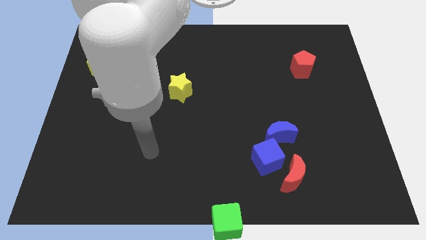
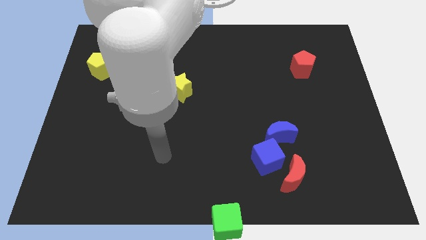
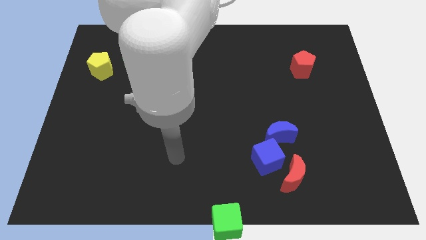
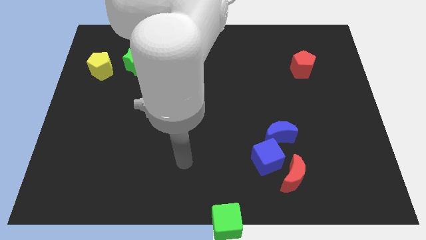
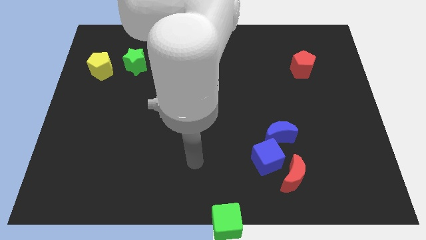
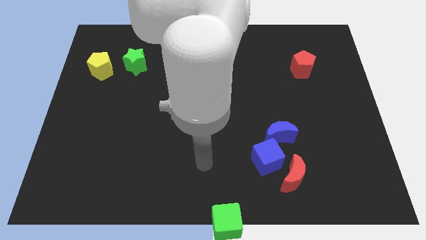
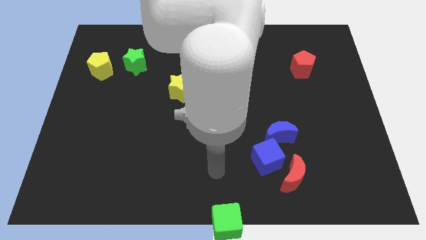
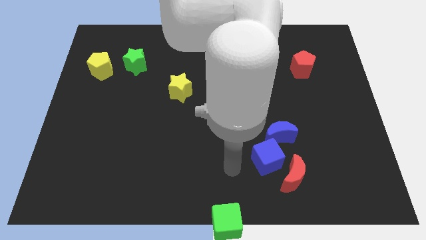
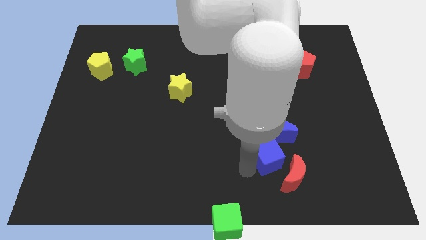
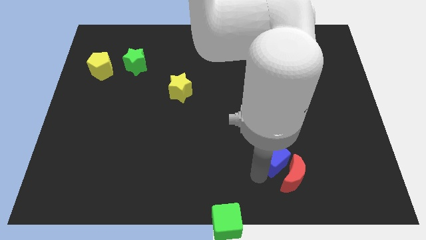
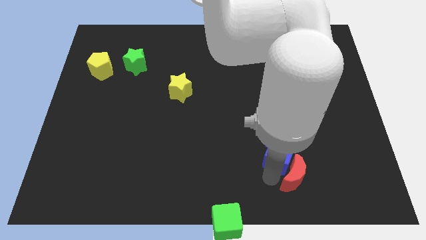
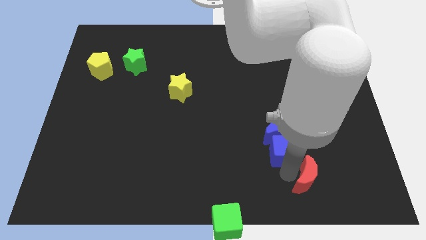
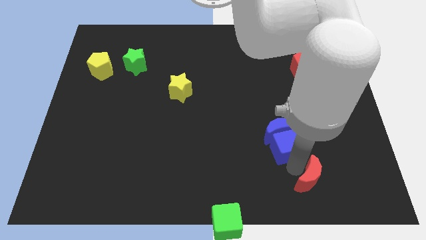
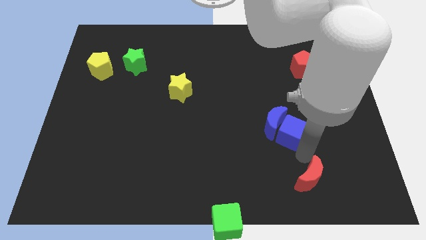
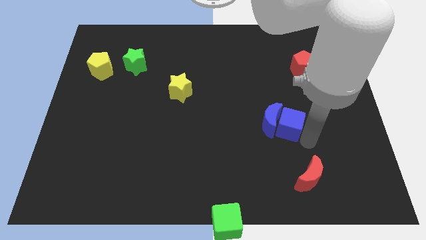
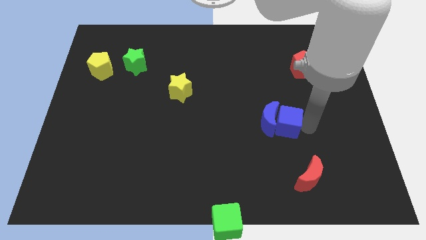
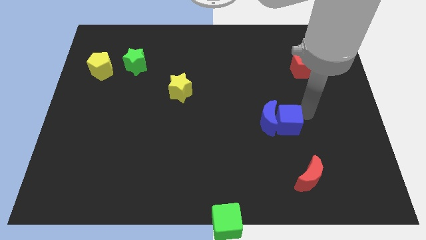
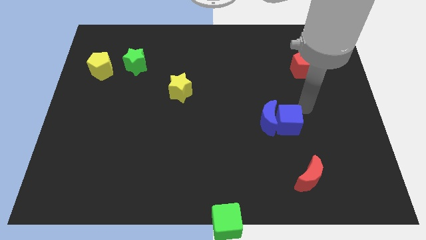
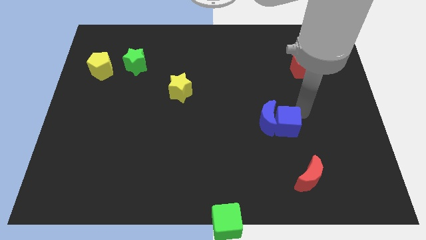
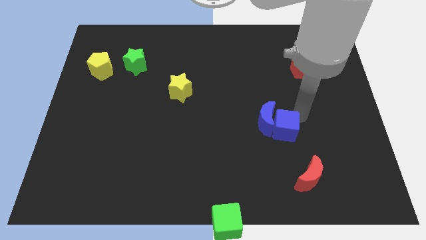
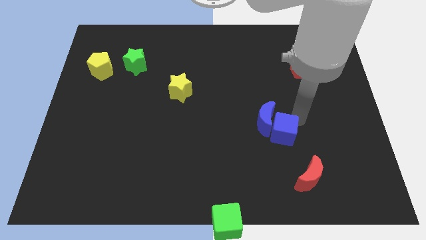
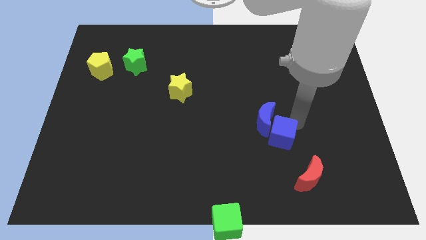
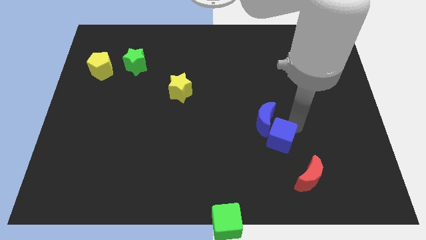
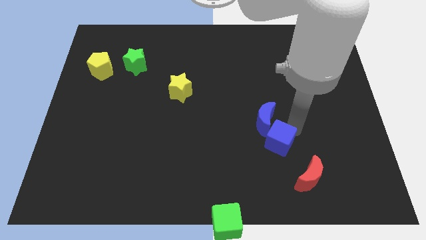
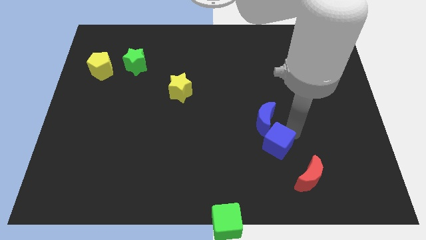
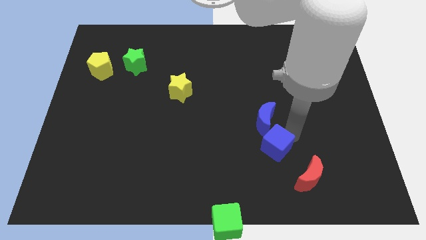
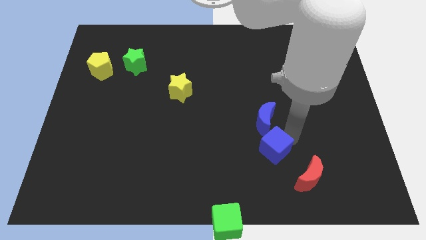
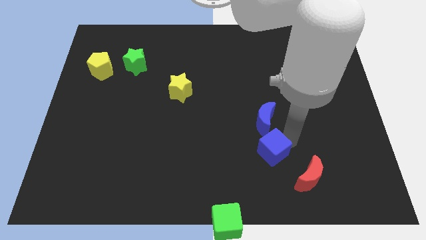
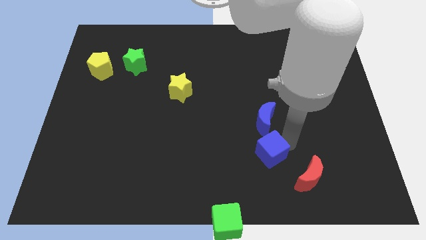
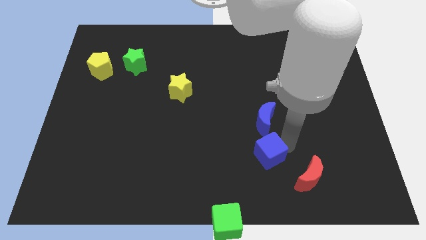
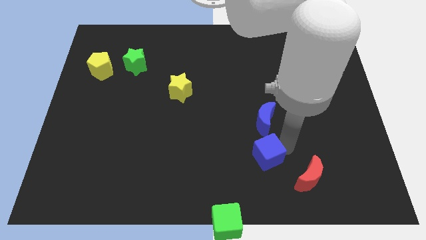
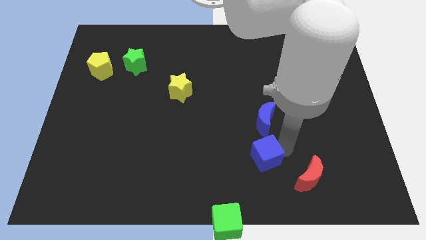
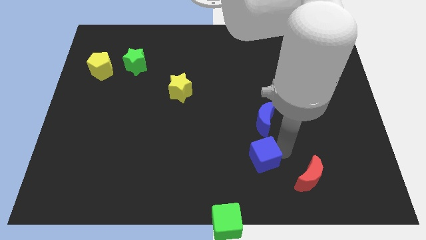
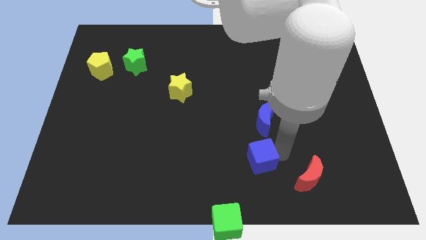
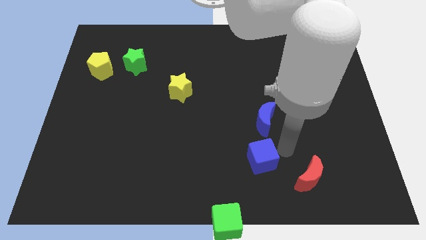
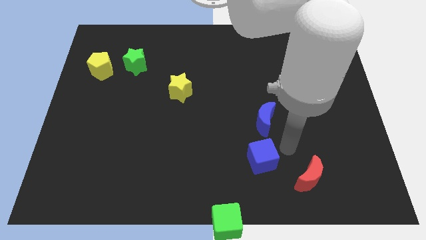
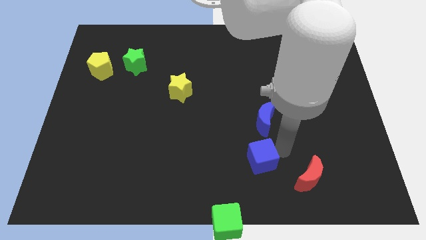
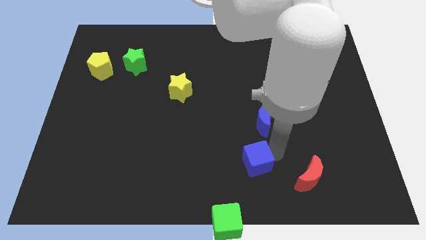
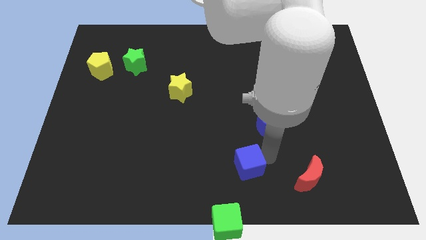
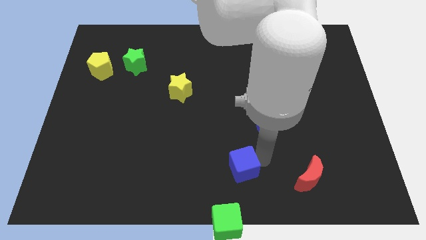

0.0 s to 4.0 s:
separate the blue cube from the red moon and blue moon

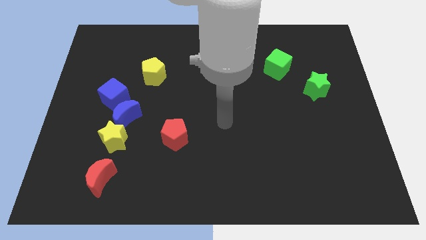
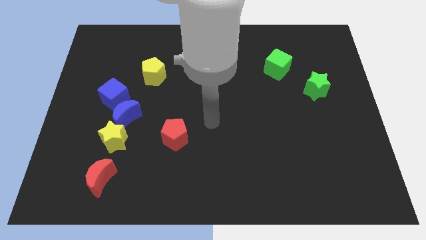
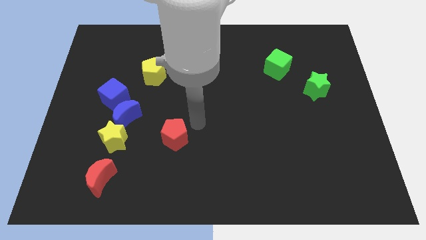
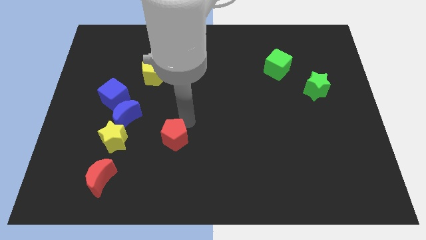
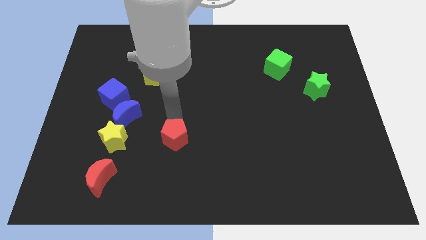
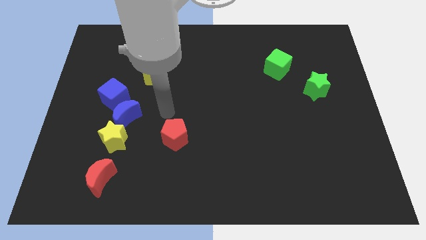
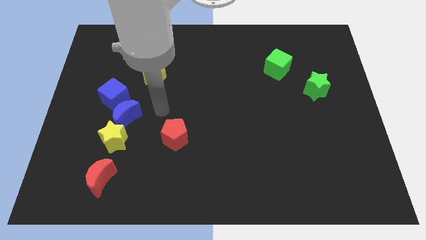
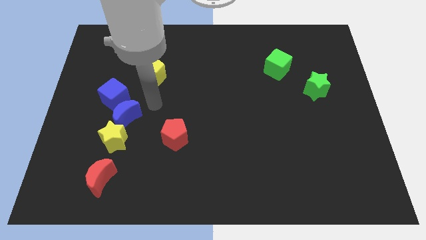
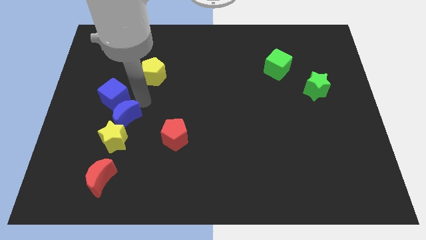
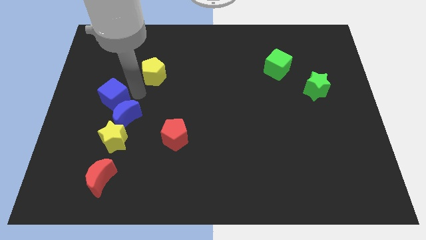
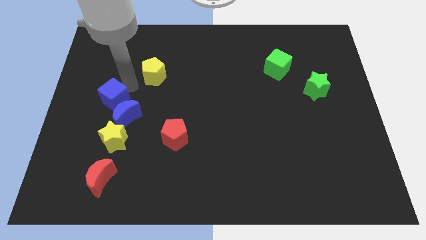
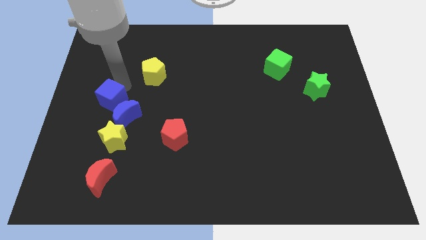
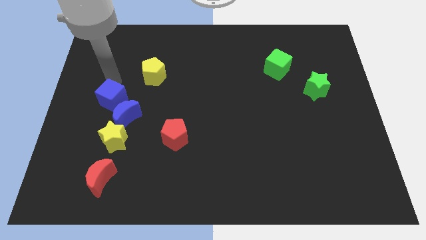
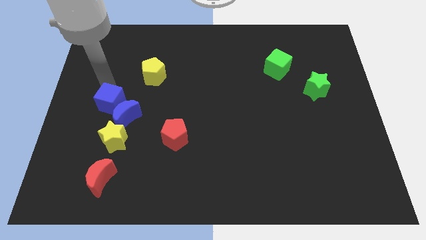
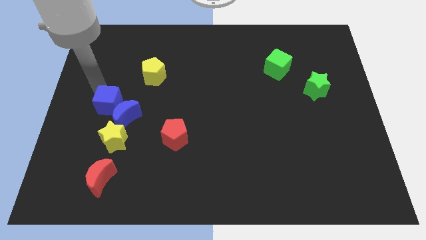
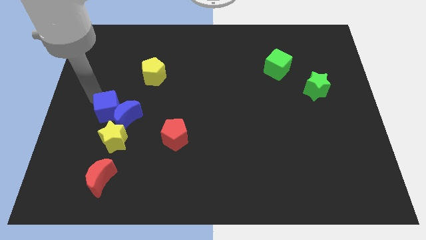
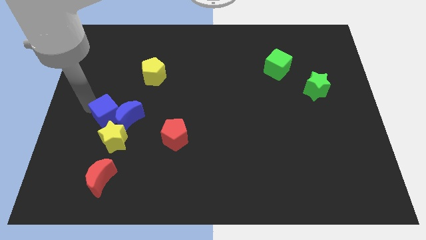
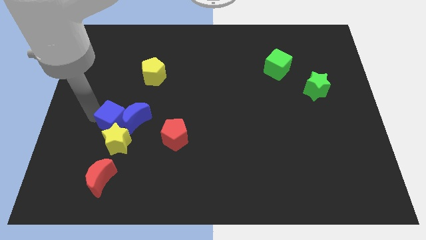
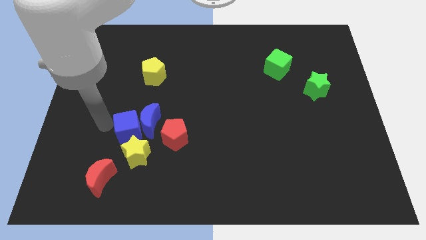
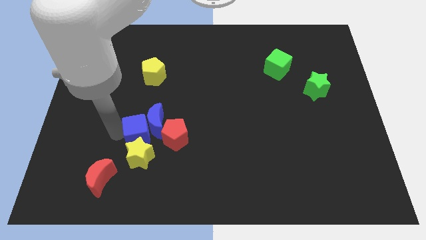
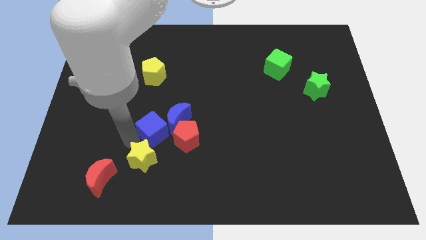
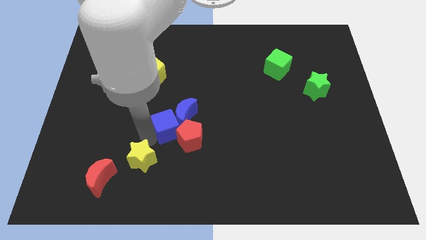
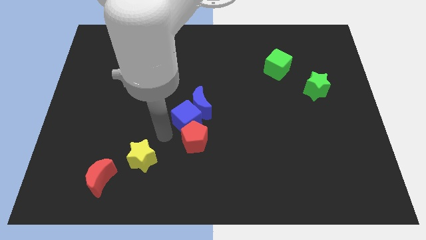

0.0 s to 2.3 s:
pull the blue moon apart from the yellow star and blue cube

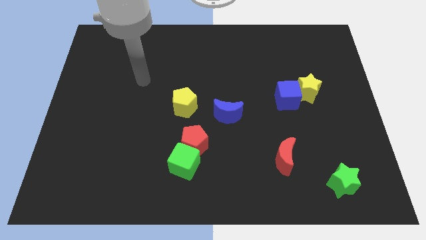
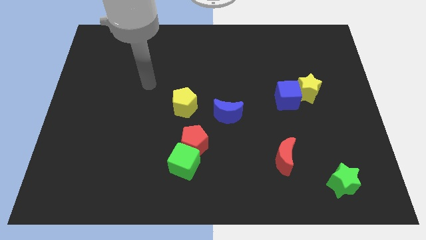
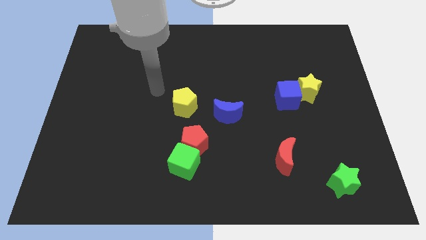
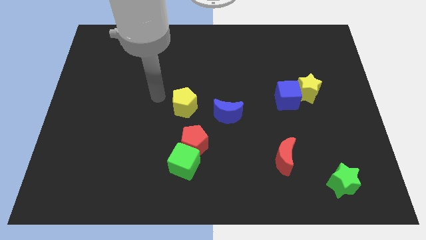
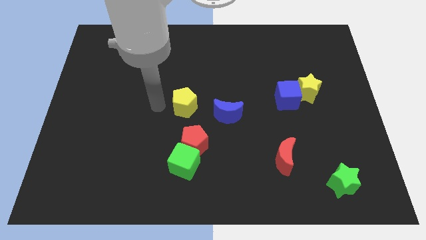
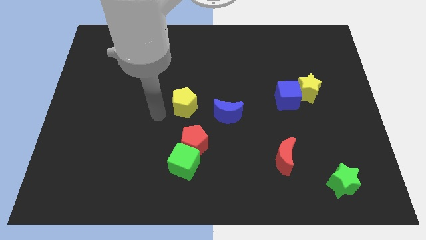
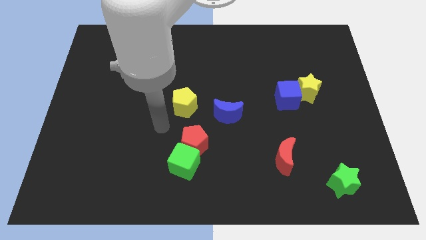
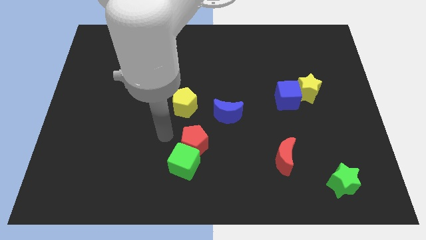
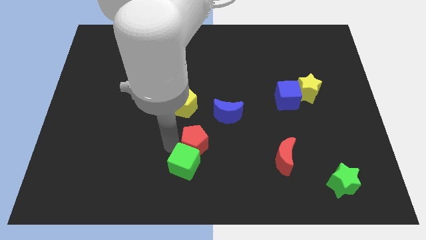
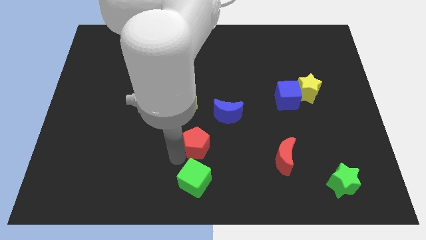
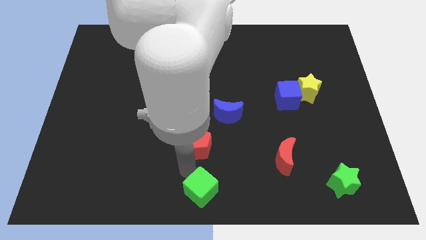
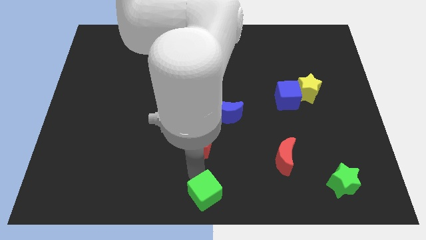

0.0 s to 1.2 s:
move the red pentagon away from the green cube

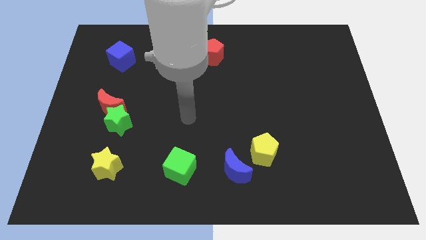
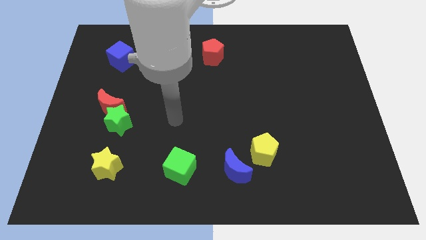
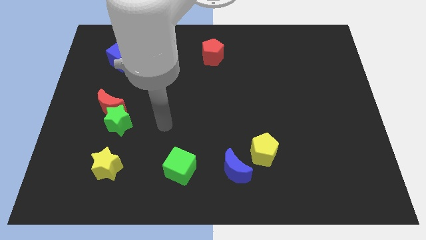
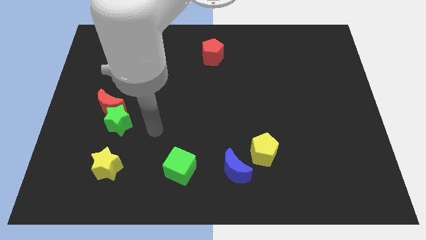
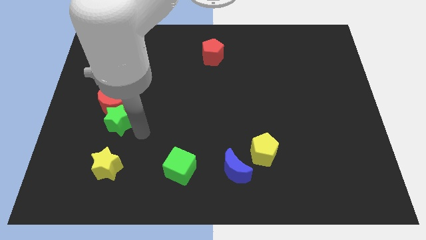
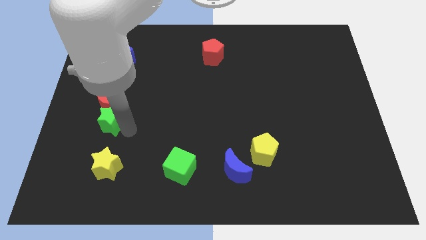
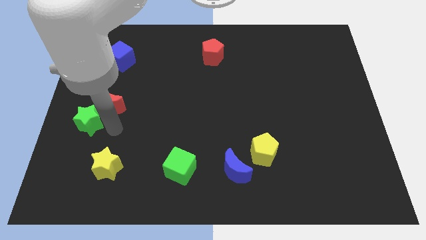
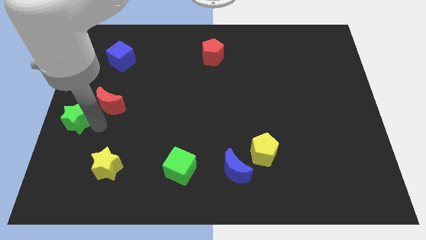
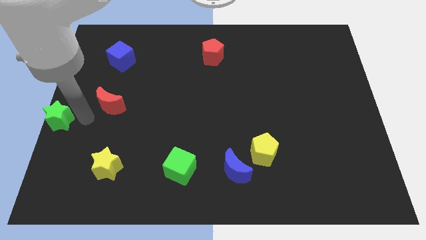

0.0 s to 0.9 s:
separate the red moon from the green star

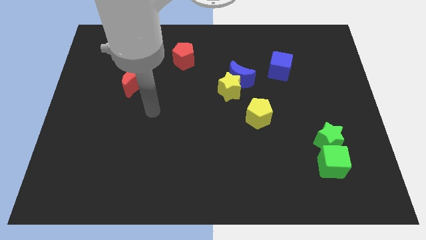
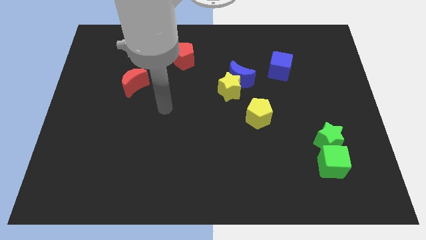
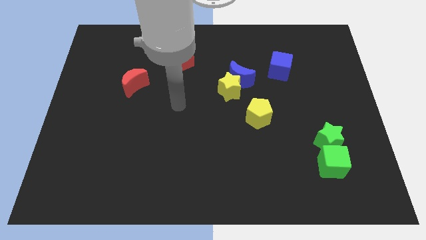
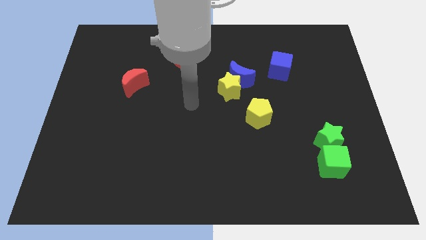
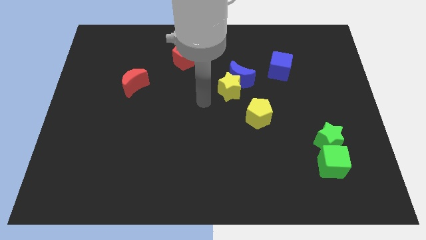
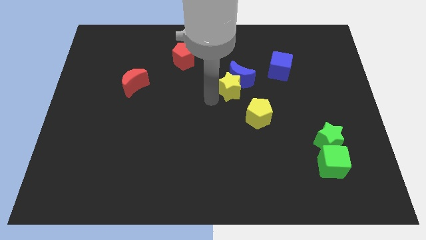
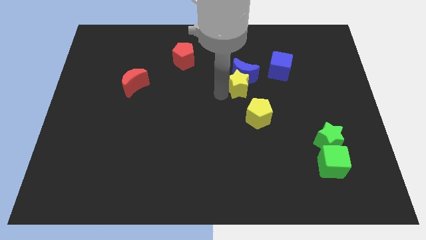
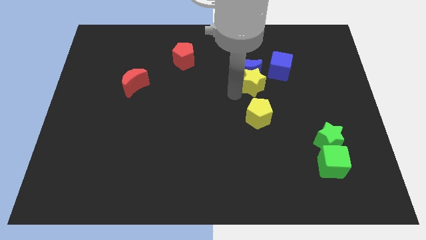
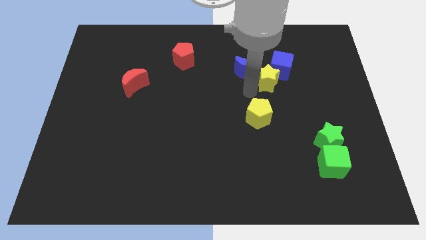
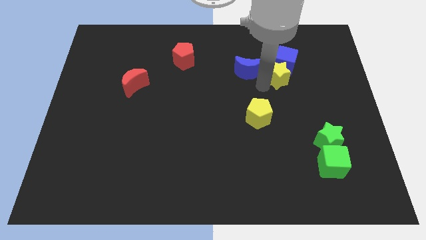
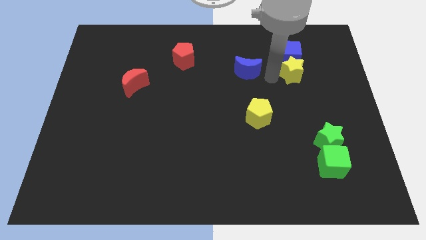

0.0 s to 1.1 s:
separate the blue moon from the yellow star
